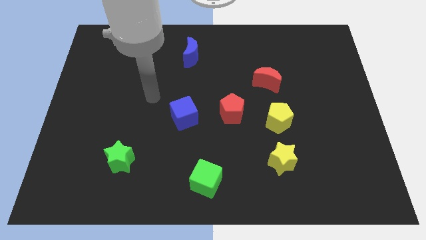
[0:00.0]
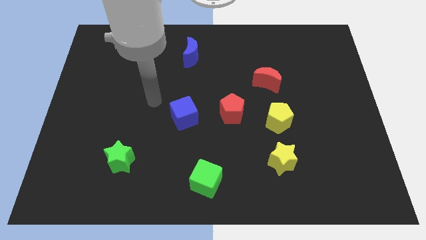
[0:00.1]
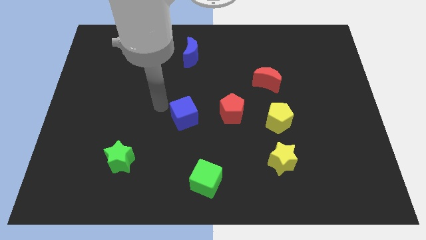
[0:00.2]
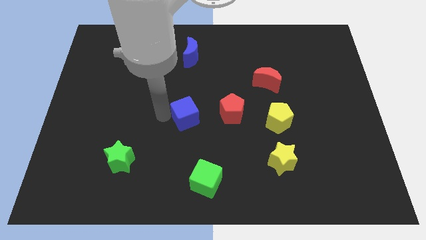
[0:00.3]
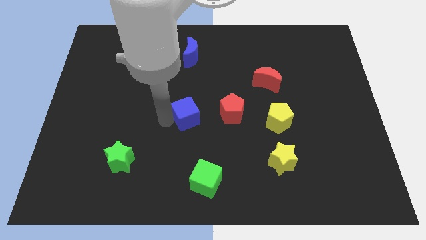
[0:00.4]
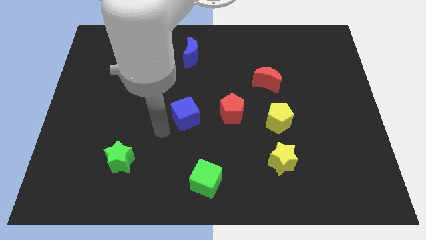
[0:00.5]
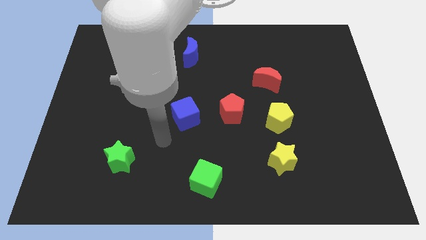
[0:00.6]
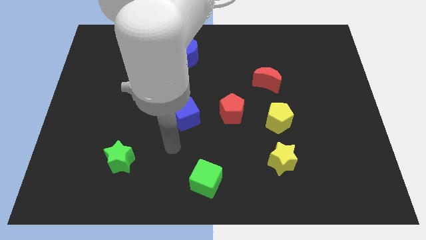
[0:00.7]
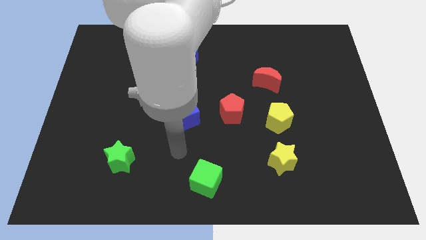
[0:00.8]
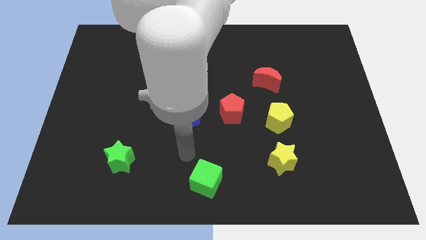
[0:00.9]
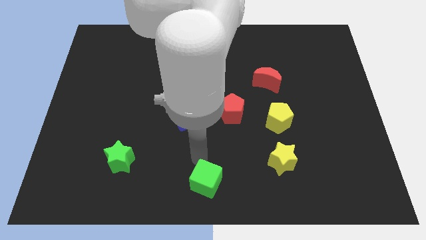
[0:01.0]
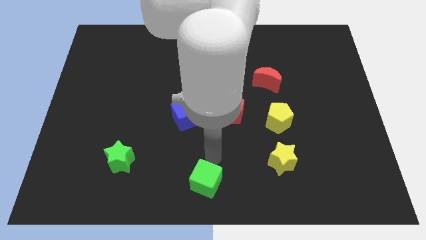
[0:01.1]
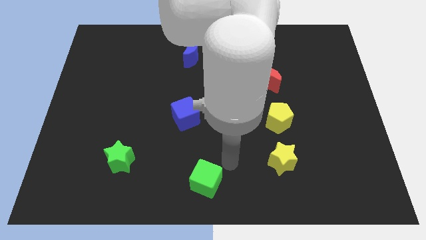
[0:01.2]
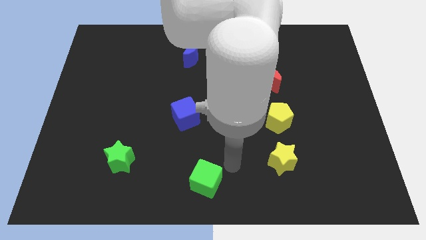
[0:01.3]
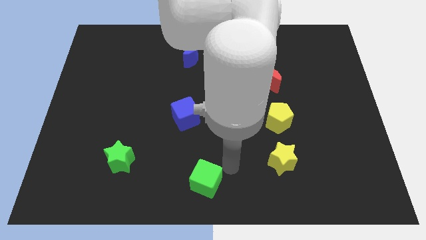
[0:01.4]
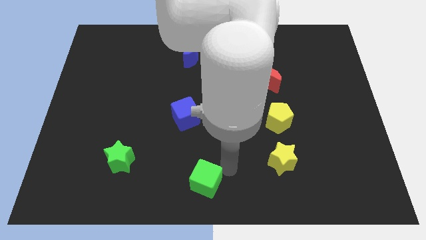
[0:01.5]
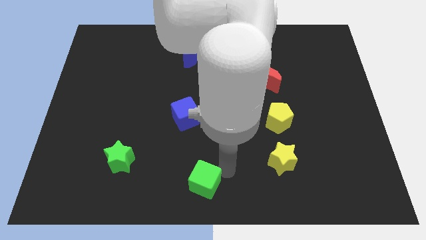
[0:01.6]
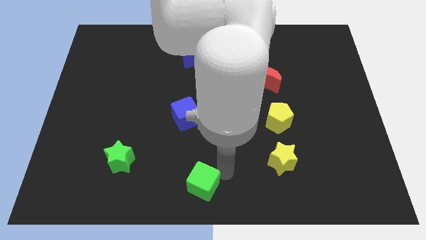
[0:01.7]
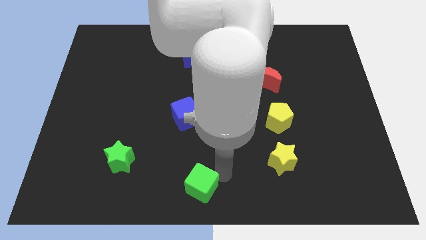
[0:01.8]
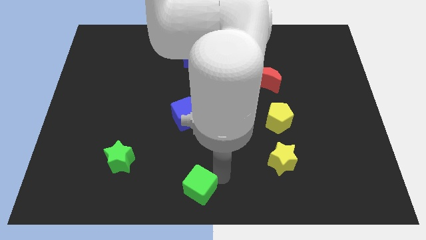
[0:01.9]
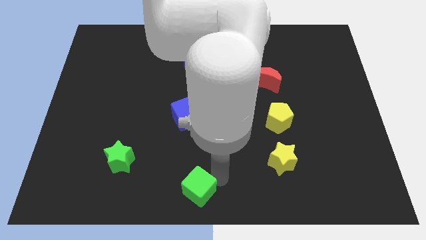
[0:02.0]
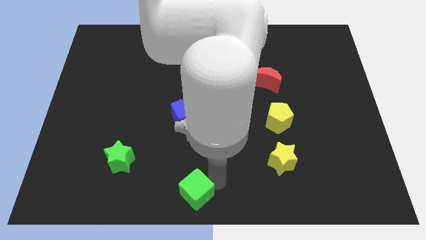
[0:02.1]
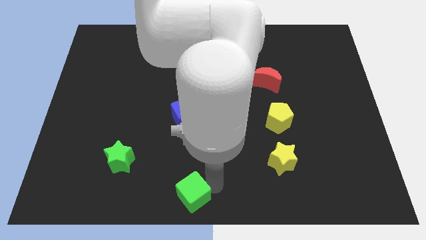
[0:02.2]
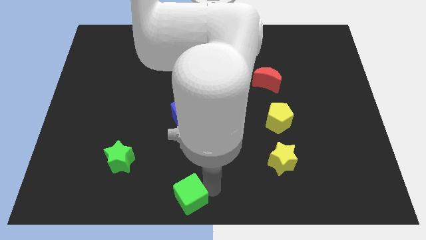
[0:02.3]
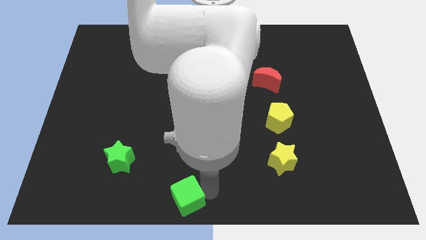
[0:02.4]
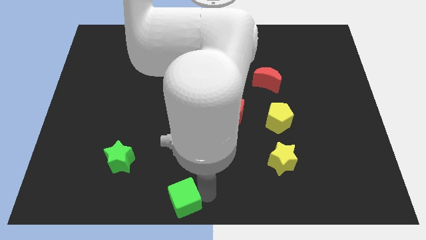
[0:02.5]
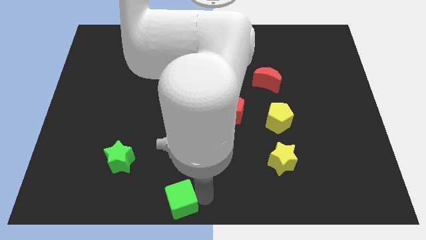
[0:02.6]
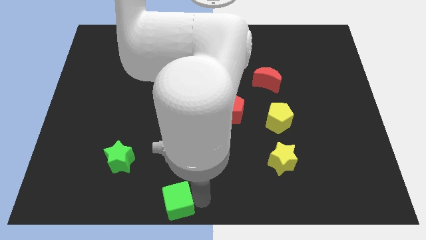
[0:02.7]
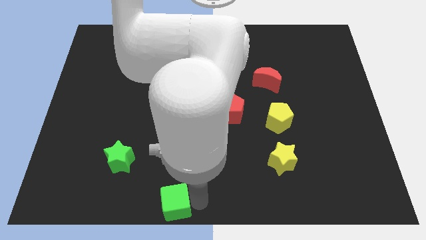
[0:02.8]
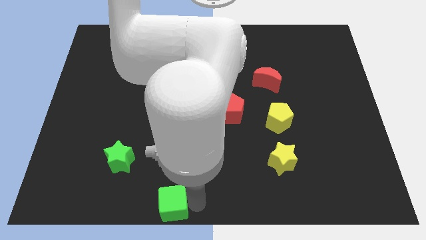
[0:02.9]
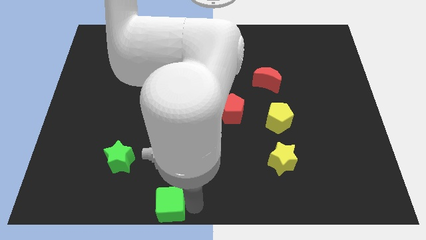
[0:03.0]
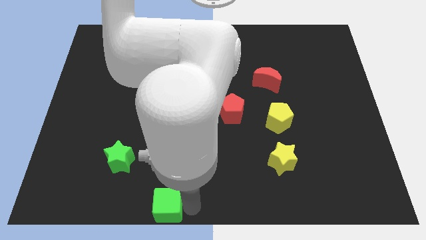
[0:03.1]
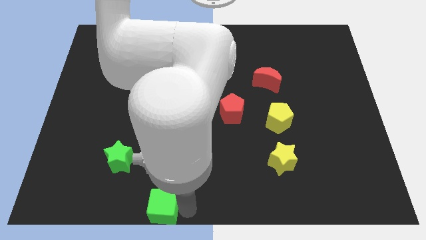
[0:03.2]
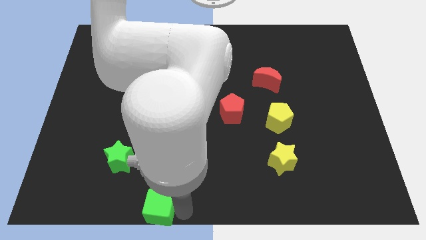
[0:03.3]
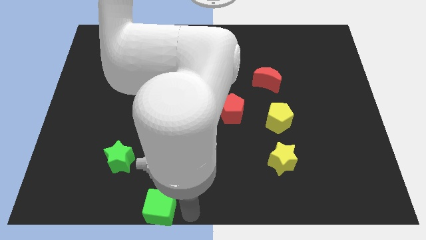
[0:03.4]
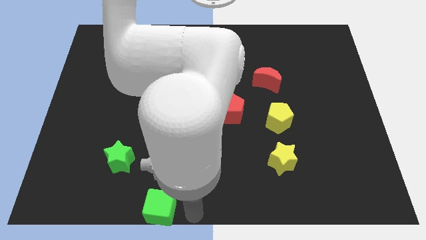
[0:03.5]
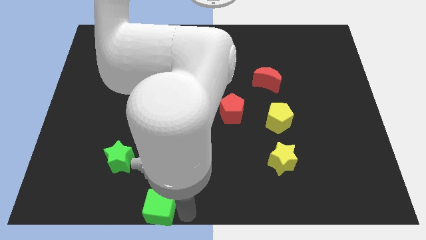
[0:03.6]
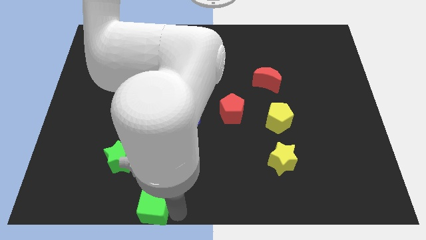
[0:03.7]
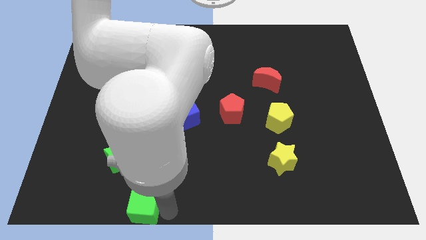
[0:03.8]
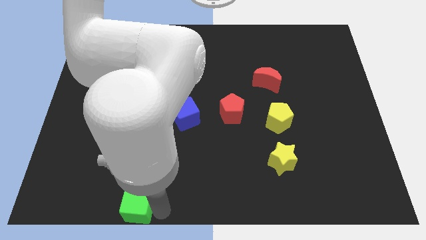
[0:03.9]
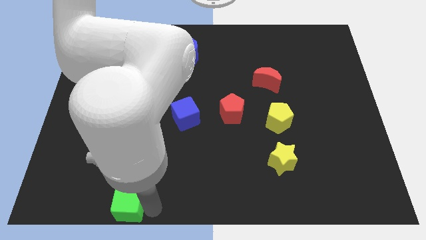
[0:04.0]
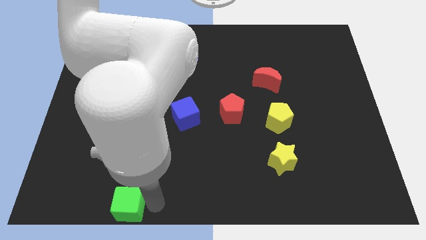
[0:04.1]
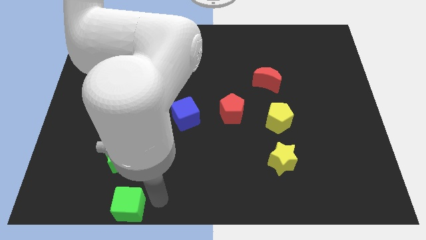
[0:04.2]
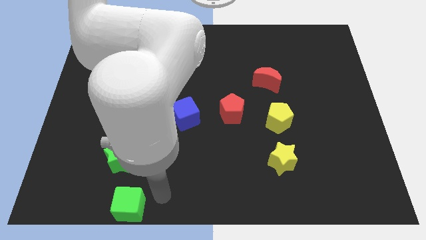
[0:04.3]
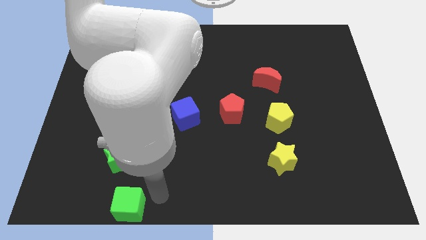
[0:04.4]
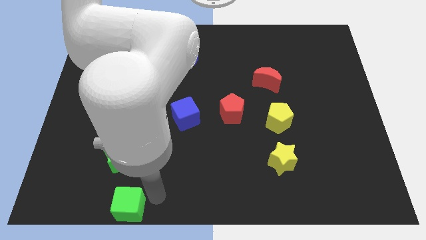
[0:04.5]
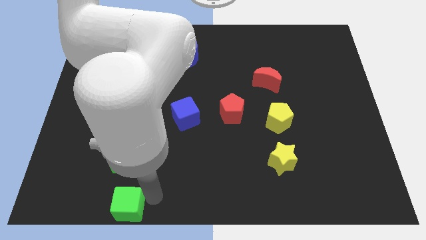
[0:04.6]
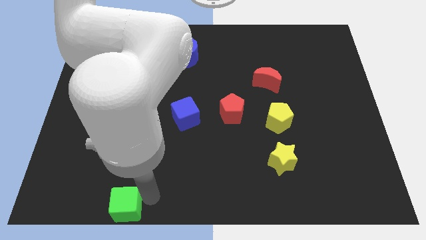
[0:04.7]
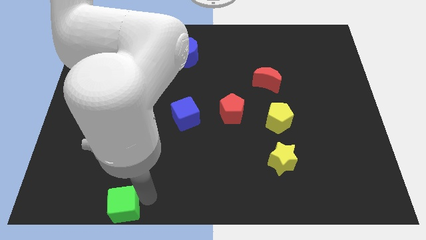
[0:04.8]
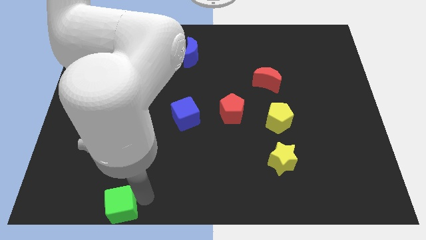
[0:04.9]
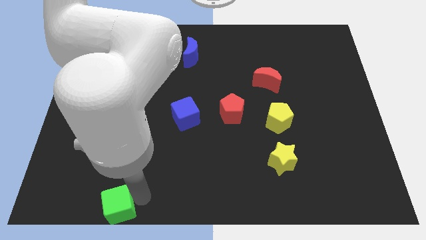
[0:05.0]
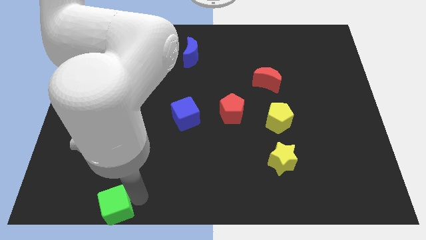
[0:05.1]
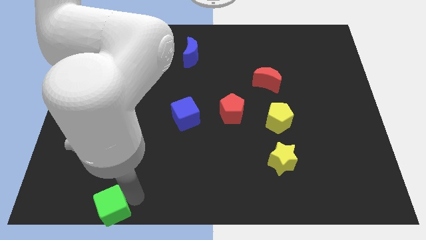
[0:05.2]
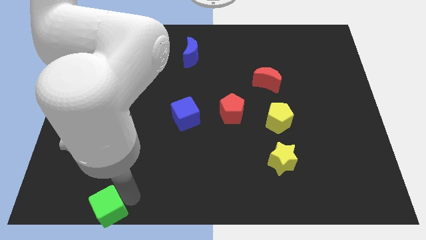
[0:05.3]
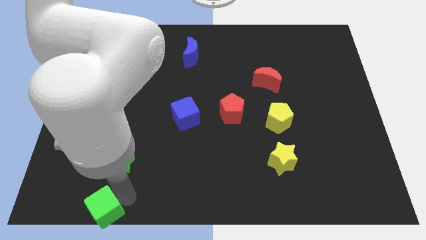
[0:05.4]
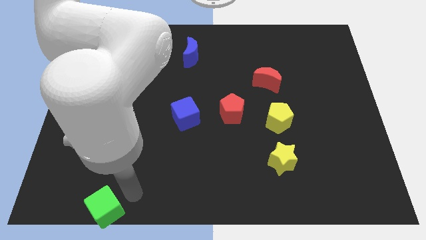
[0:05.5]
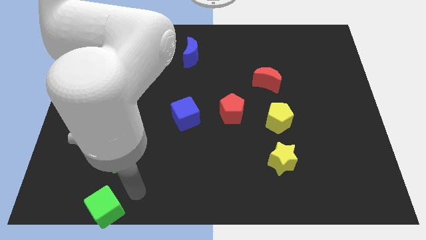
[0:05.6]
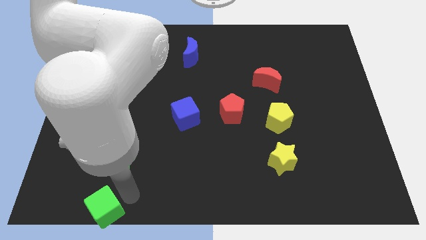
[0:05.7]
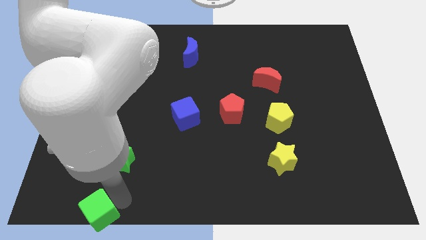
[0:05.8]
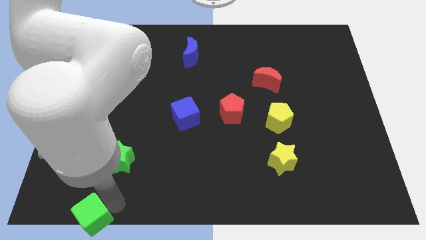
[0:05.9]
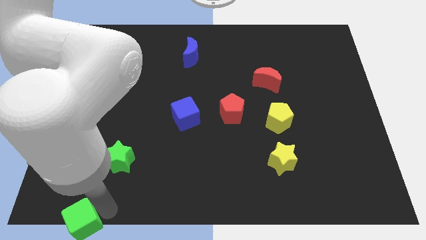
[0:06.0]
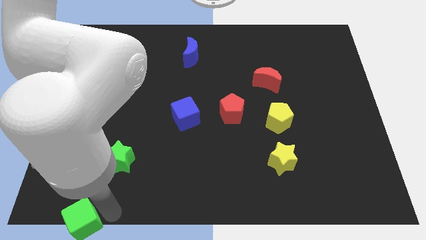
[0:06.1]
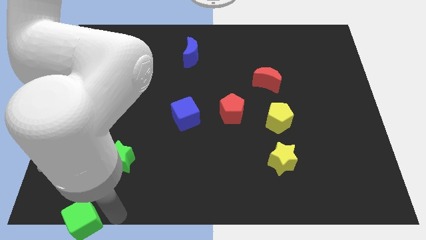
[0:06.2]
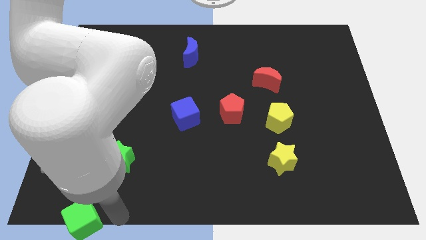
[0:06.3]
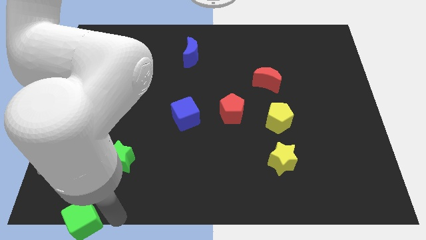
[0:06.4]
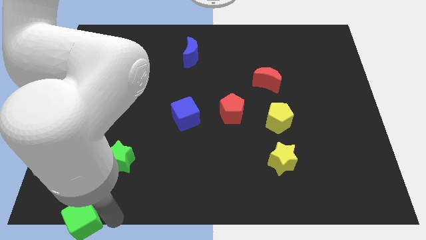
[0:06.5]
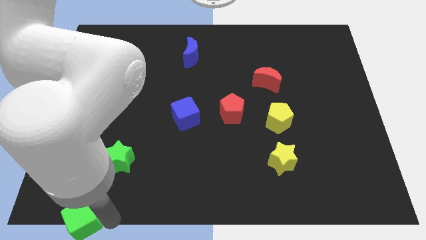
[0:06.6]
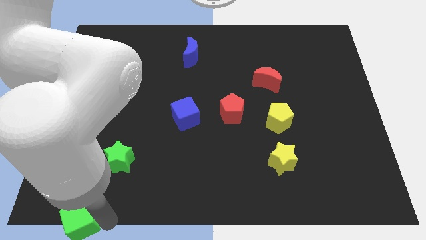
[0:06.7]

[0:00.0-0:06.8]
push the green cube to the bottom left corner

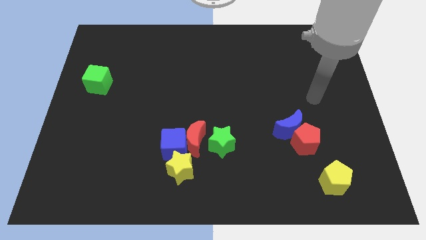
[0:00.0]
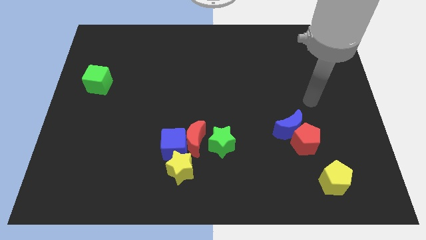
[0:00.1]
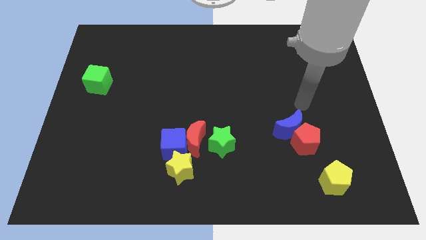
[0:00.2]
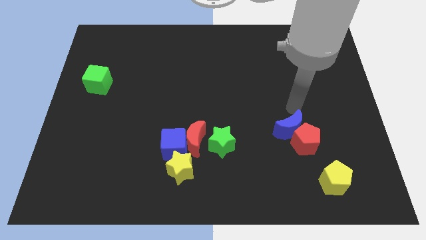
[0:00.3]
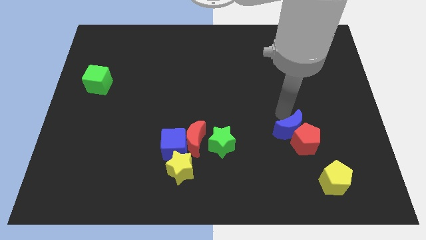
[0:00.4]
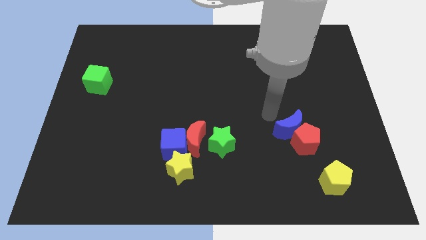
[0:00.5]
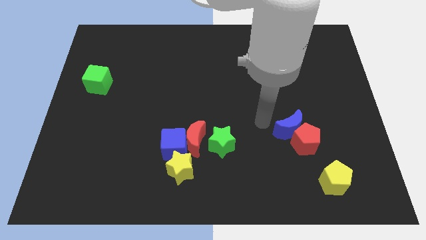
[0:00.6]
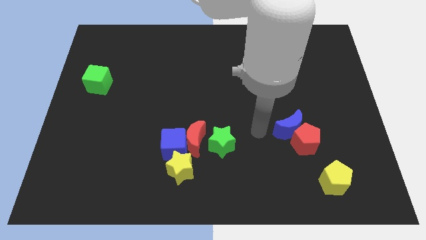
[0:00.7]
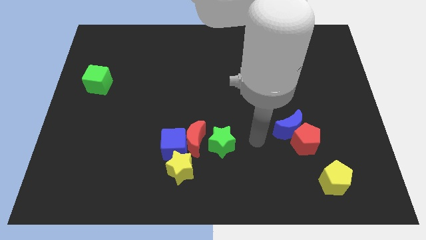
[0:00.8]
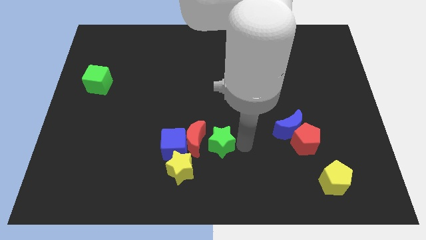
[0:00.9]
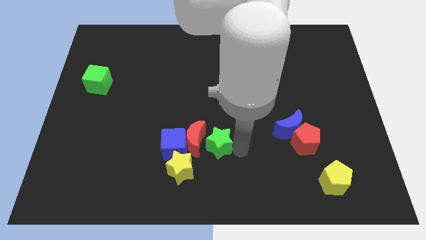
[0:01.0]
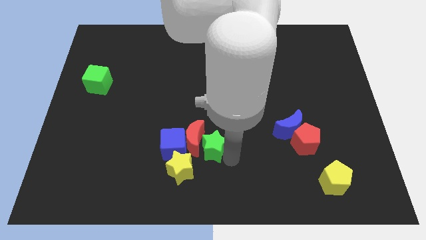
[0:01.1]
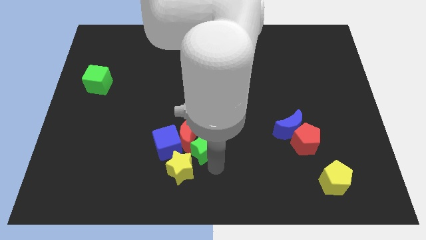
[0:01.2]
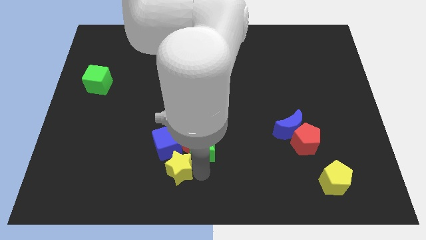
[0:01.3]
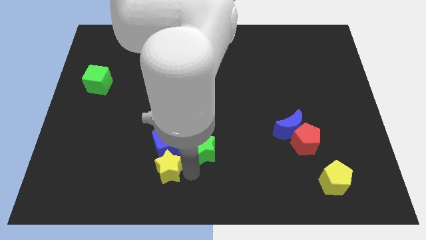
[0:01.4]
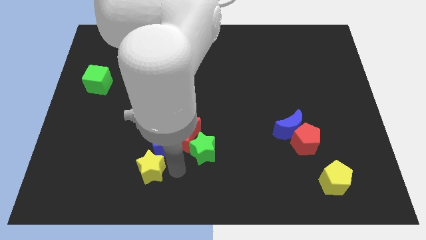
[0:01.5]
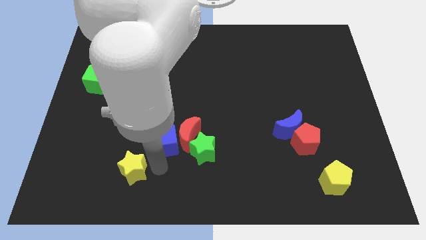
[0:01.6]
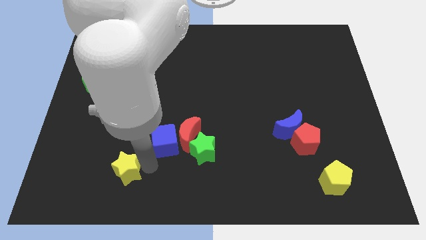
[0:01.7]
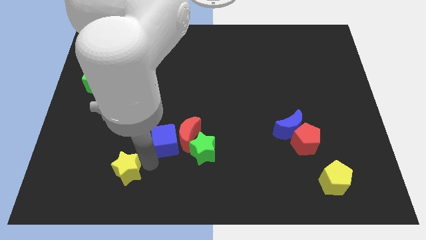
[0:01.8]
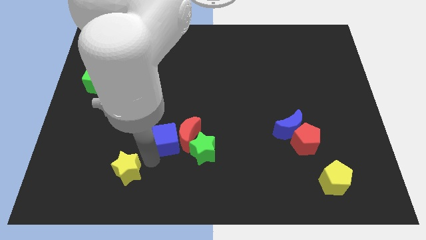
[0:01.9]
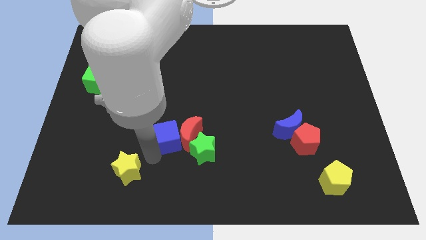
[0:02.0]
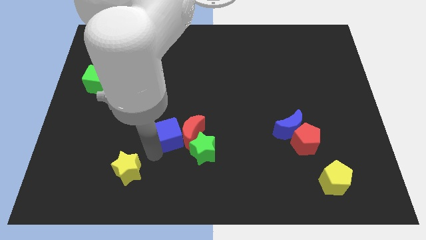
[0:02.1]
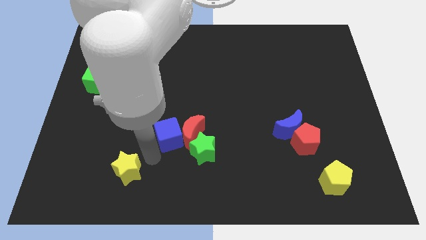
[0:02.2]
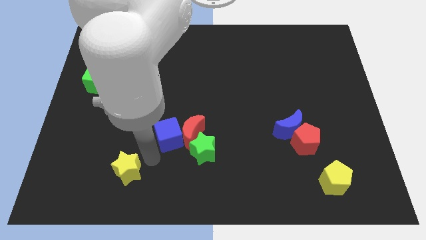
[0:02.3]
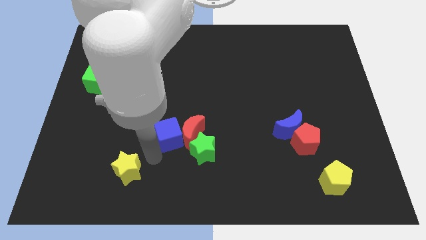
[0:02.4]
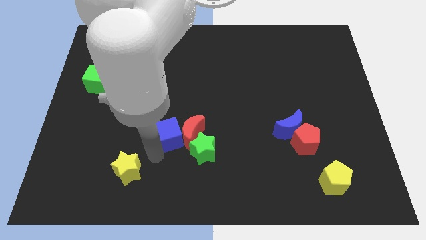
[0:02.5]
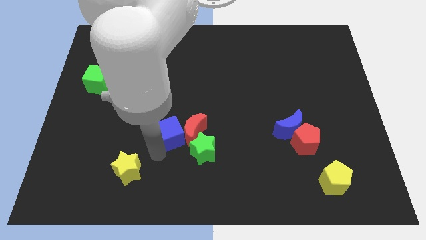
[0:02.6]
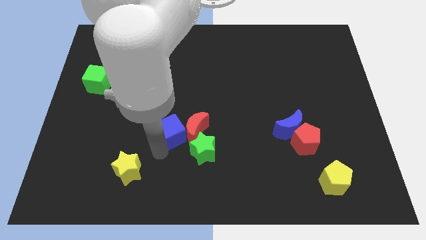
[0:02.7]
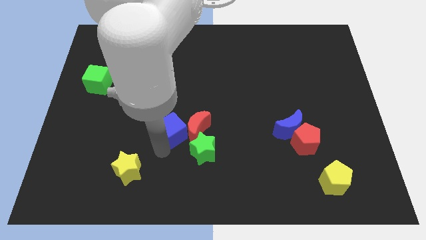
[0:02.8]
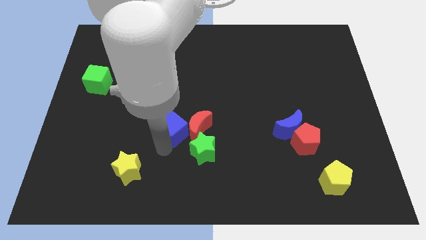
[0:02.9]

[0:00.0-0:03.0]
push the blue cube to the center of the board
